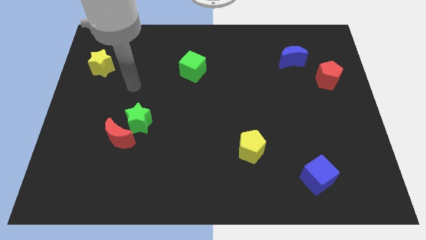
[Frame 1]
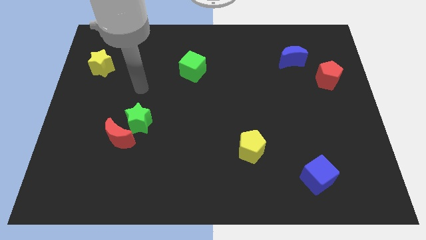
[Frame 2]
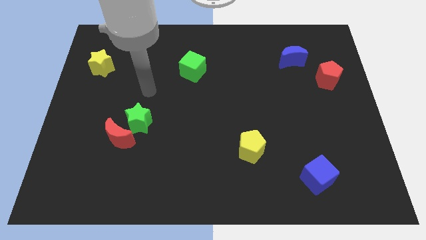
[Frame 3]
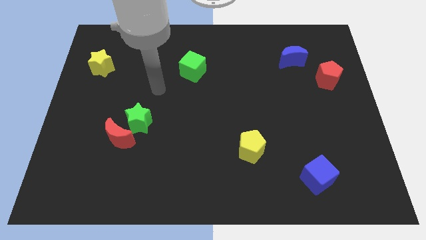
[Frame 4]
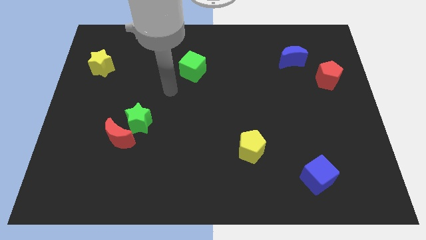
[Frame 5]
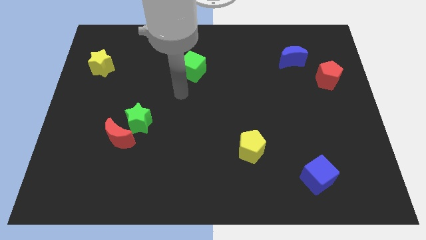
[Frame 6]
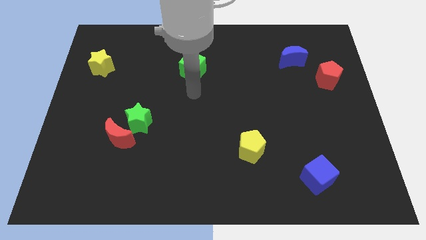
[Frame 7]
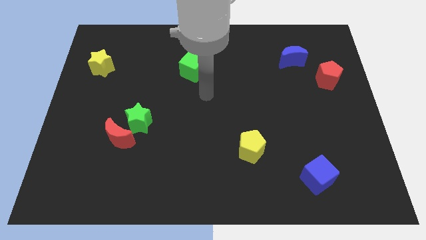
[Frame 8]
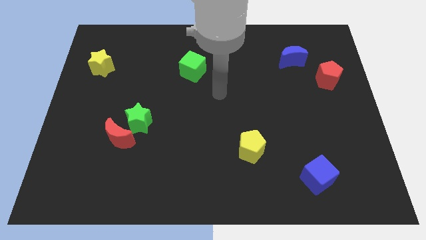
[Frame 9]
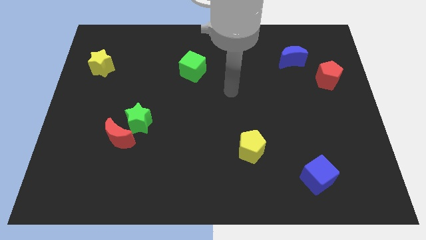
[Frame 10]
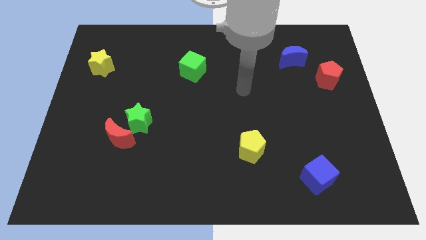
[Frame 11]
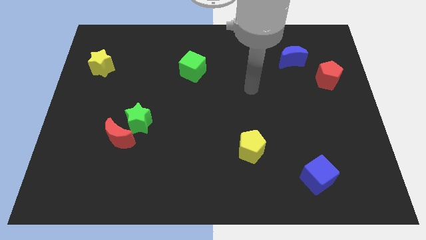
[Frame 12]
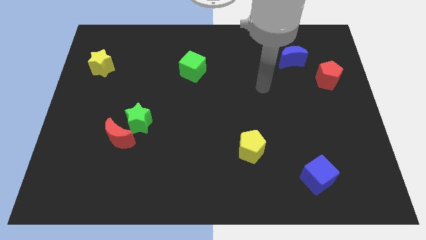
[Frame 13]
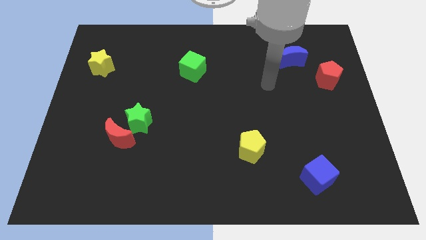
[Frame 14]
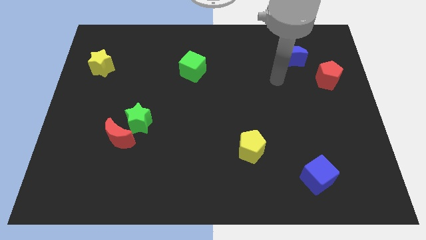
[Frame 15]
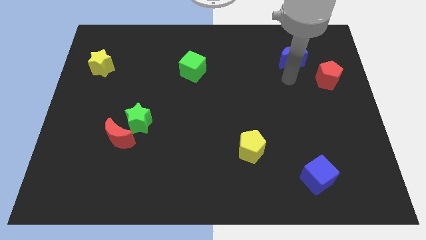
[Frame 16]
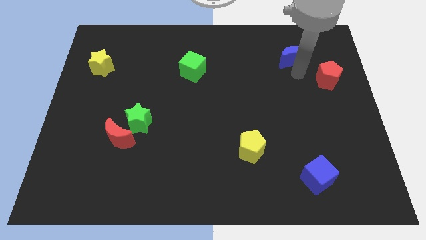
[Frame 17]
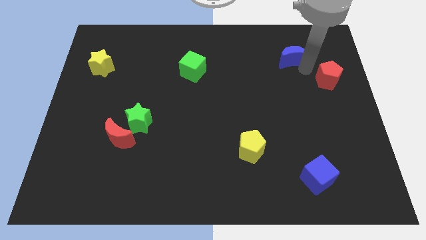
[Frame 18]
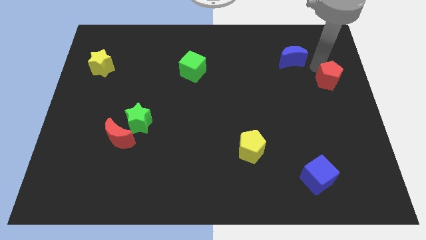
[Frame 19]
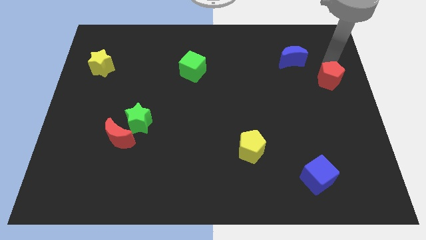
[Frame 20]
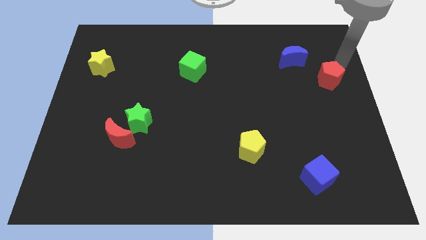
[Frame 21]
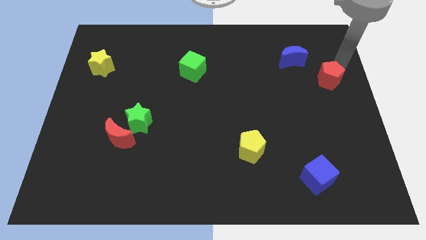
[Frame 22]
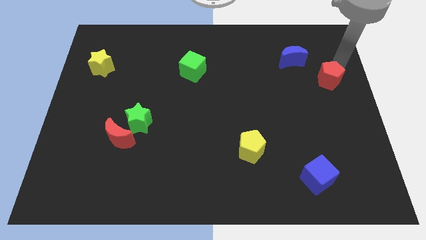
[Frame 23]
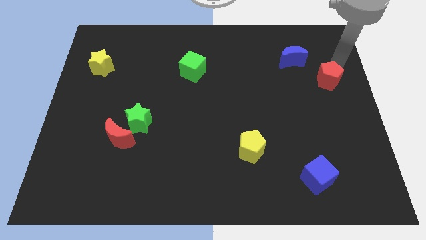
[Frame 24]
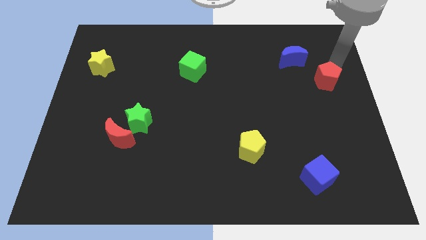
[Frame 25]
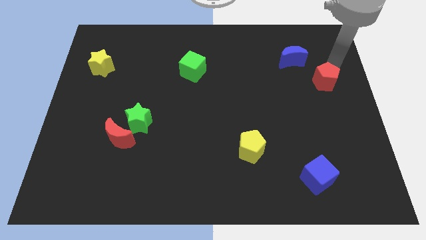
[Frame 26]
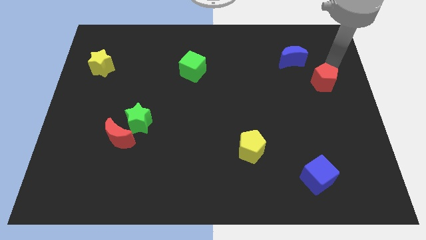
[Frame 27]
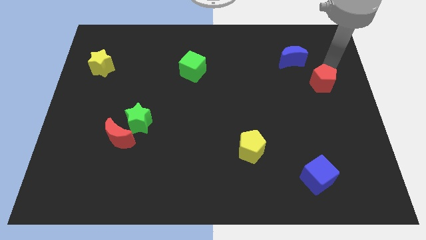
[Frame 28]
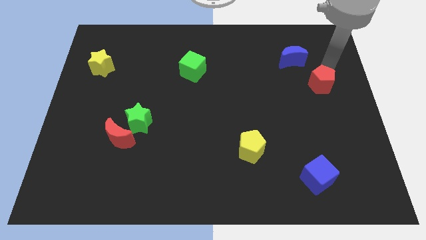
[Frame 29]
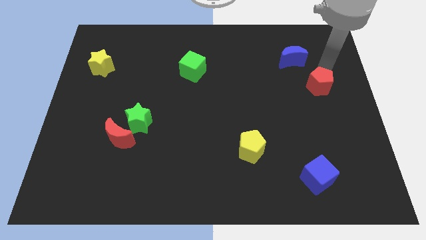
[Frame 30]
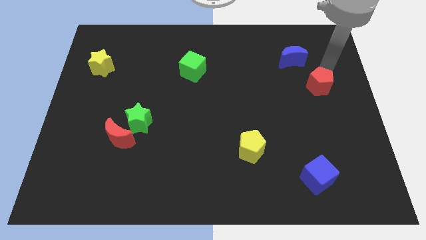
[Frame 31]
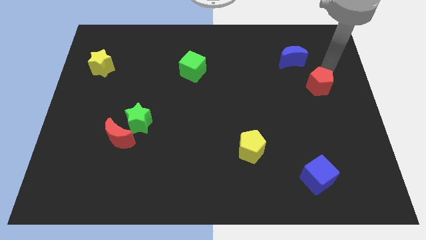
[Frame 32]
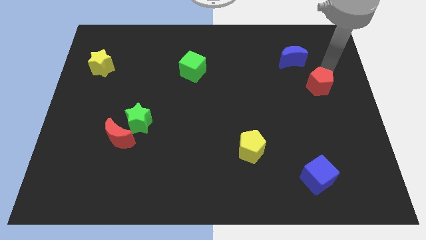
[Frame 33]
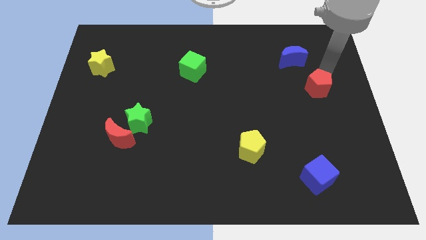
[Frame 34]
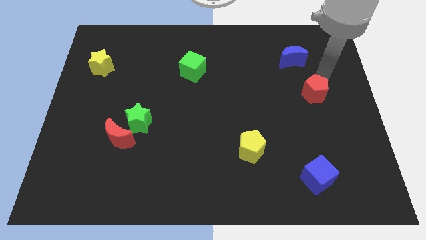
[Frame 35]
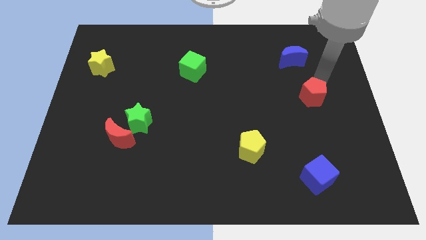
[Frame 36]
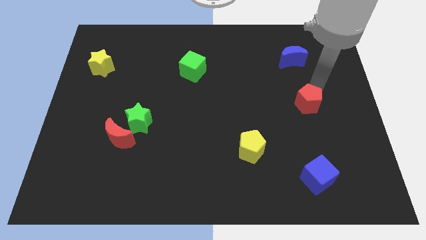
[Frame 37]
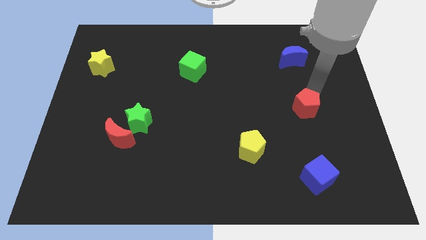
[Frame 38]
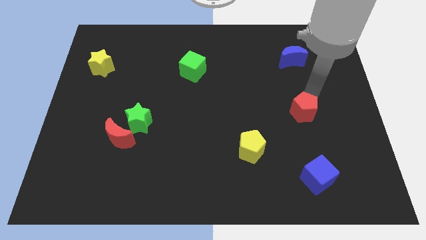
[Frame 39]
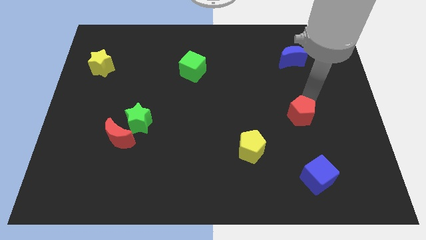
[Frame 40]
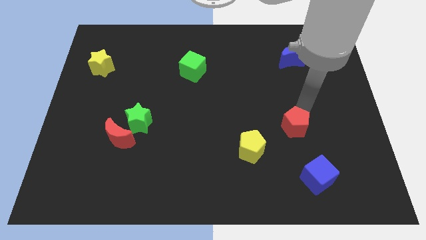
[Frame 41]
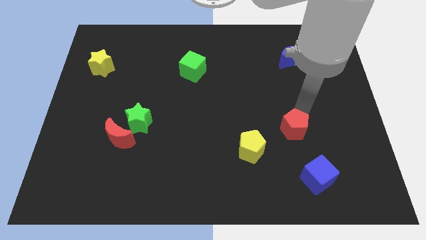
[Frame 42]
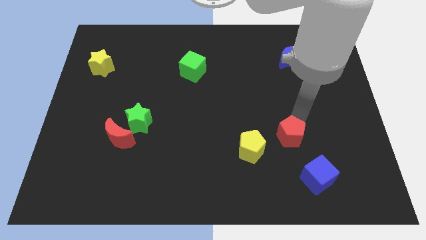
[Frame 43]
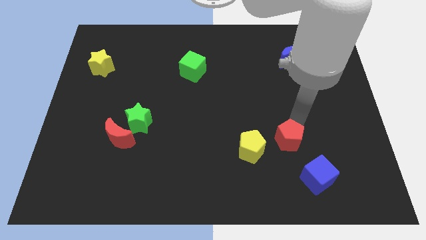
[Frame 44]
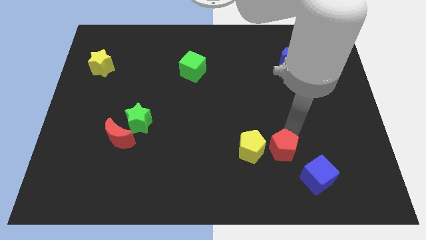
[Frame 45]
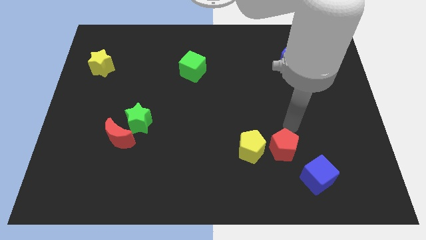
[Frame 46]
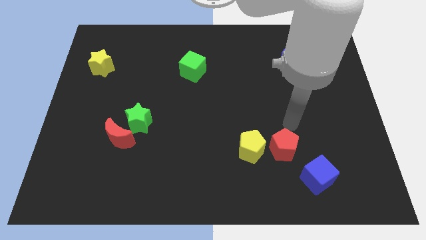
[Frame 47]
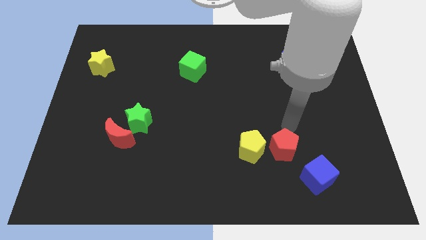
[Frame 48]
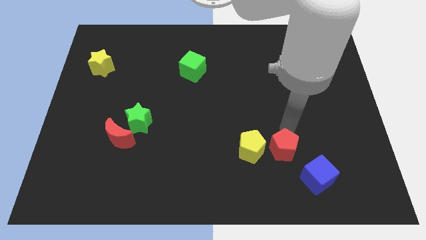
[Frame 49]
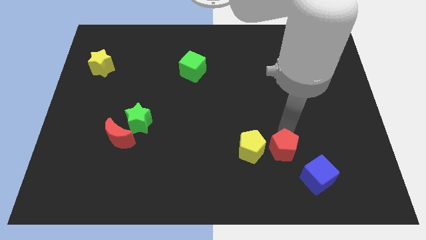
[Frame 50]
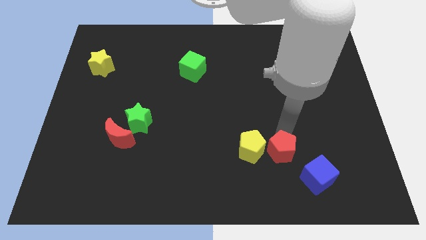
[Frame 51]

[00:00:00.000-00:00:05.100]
move the red pentagon diagonally down and to the right of the yellow pentagon

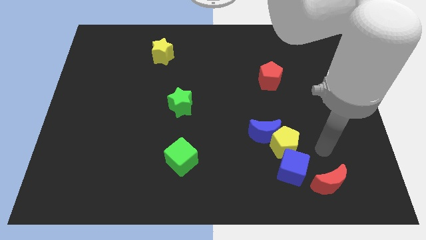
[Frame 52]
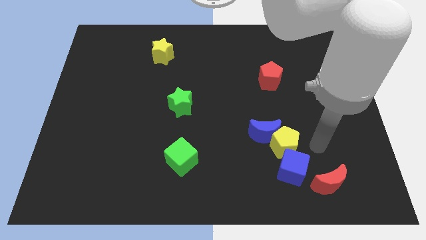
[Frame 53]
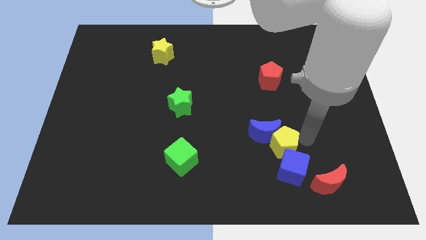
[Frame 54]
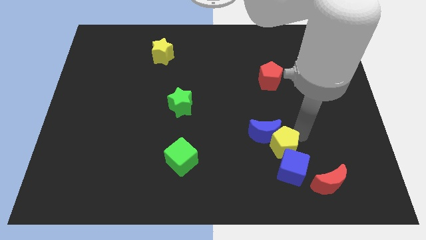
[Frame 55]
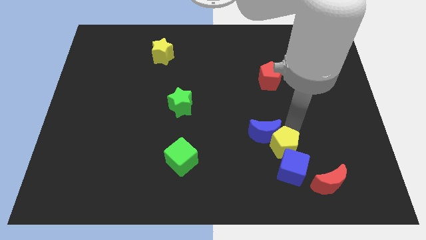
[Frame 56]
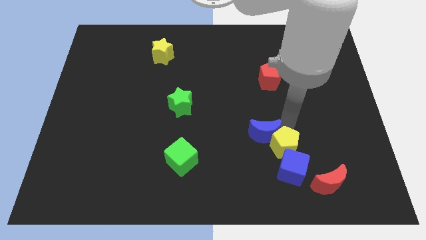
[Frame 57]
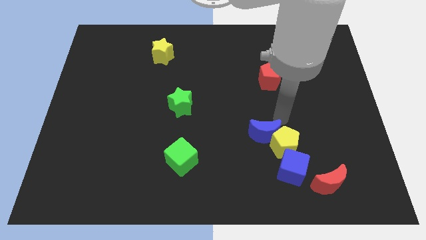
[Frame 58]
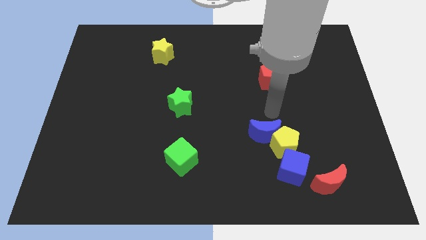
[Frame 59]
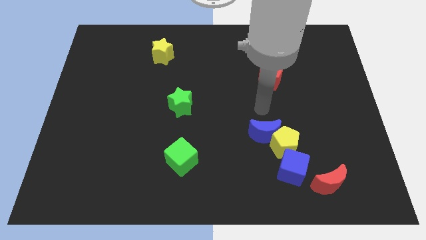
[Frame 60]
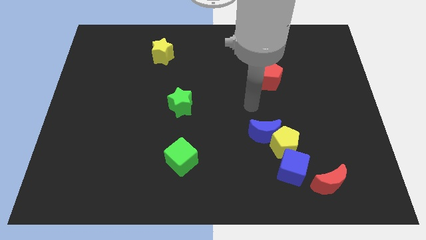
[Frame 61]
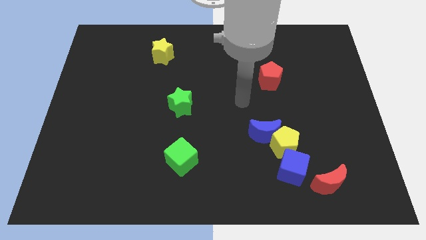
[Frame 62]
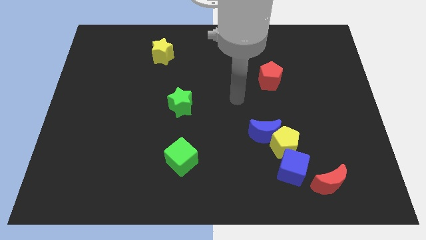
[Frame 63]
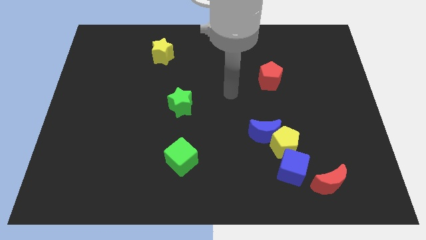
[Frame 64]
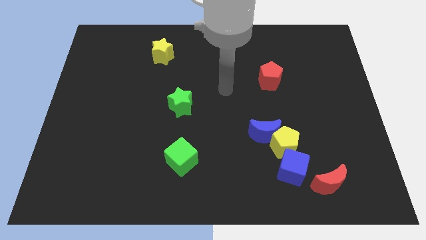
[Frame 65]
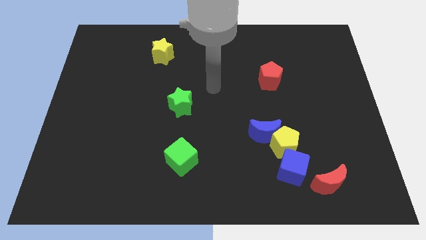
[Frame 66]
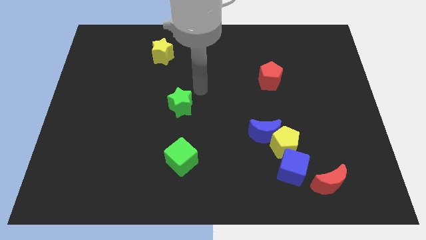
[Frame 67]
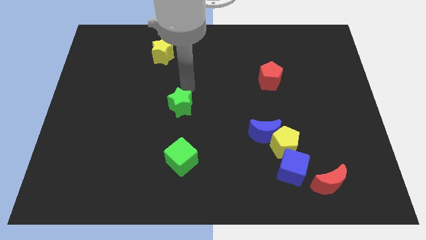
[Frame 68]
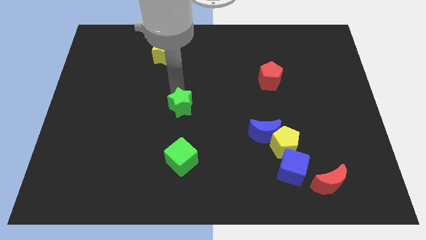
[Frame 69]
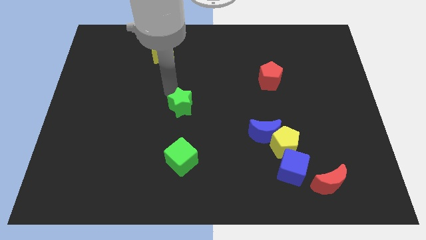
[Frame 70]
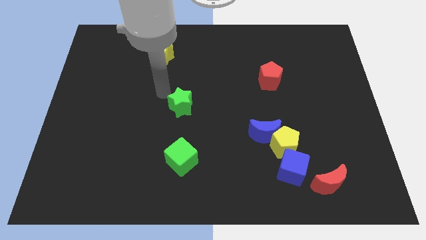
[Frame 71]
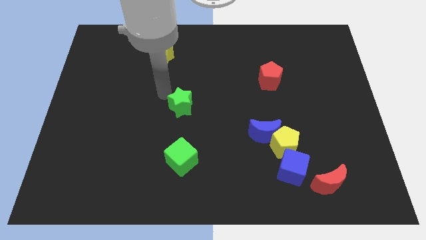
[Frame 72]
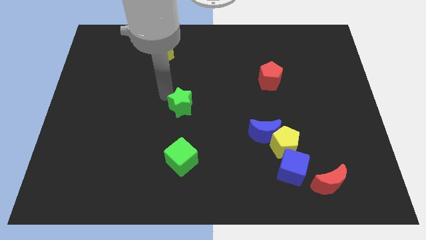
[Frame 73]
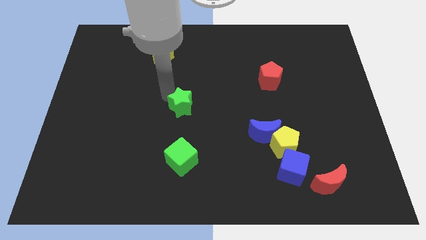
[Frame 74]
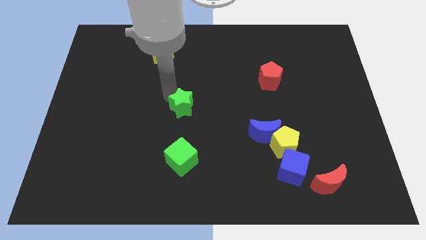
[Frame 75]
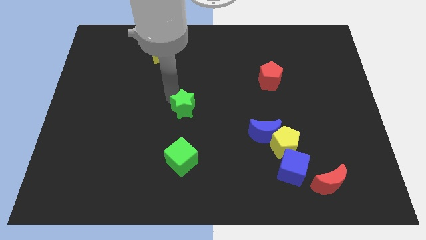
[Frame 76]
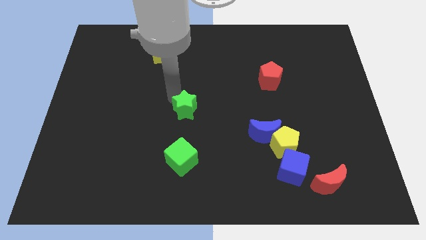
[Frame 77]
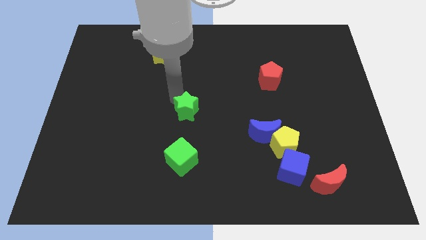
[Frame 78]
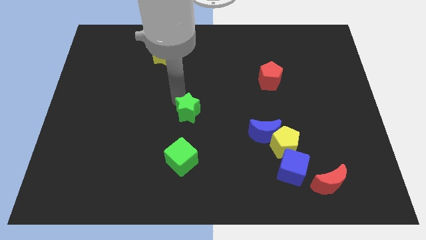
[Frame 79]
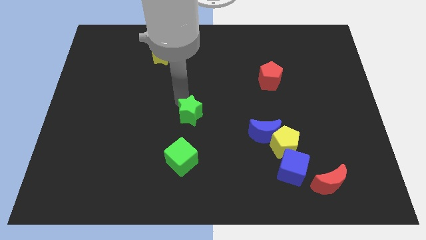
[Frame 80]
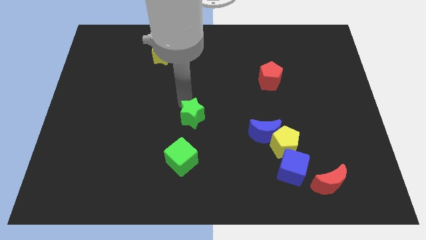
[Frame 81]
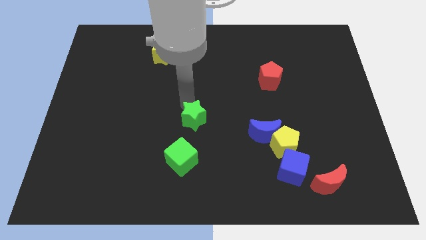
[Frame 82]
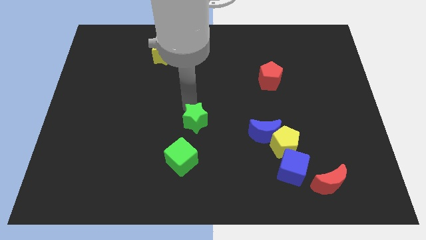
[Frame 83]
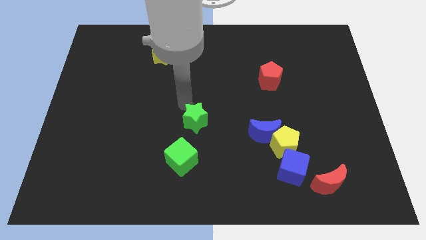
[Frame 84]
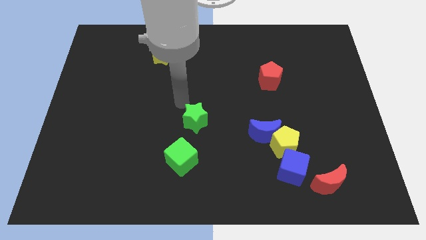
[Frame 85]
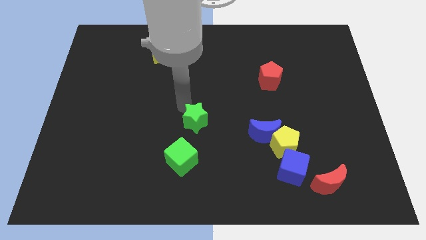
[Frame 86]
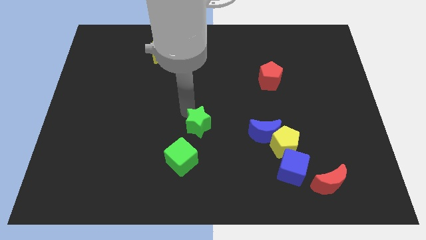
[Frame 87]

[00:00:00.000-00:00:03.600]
put the green star diagonally up and to the right of the green cube
